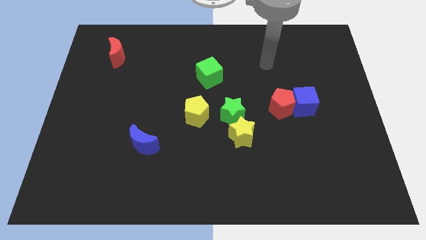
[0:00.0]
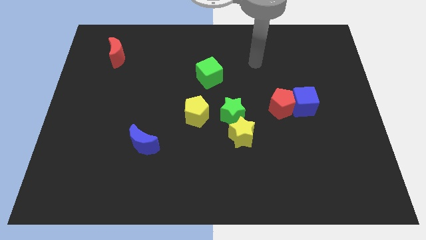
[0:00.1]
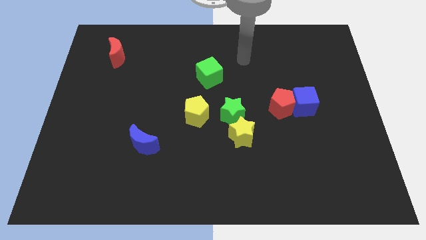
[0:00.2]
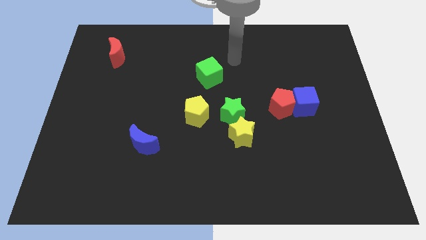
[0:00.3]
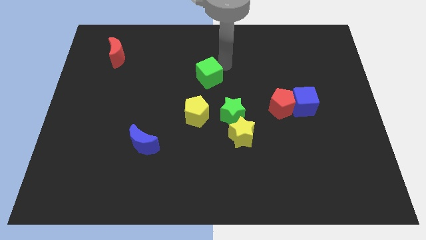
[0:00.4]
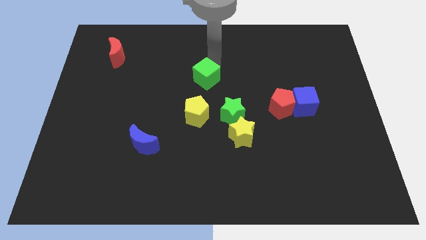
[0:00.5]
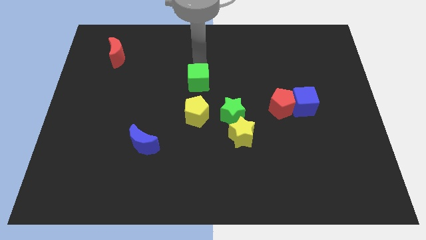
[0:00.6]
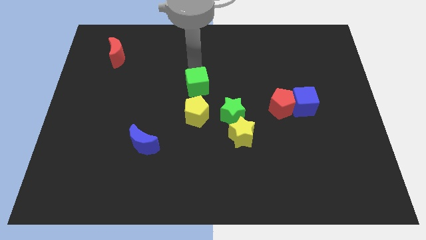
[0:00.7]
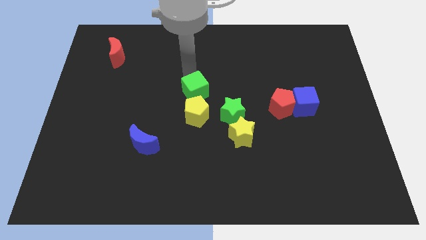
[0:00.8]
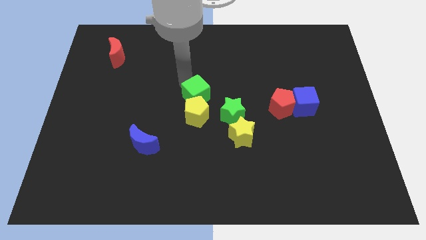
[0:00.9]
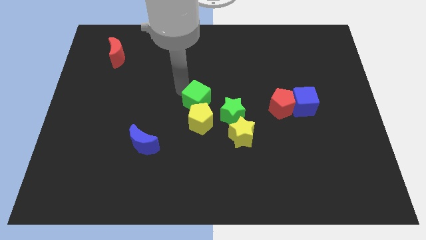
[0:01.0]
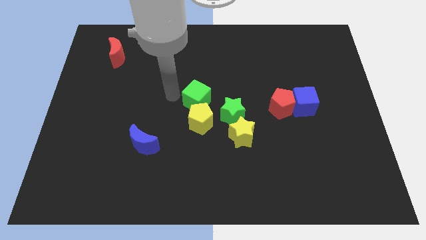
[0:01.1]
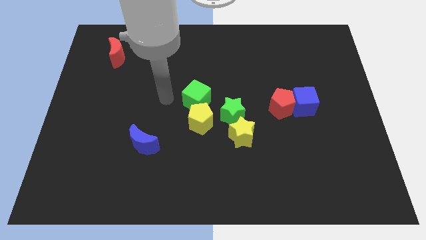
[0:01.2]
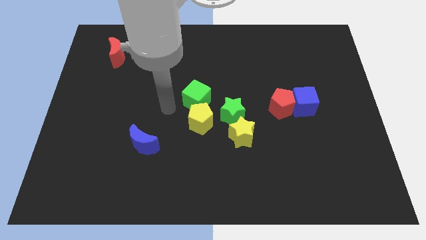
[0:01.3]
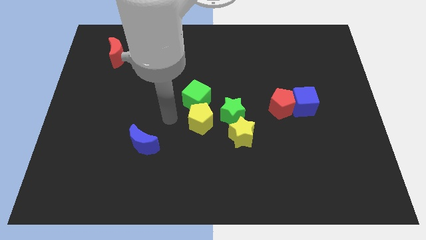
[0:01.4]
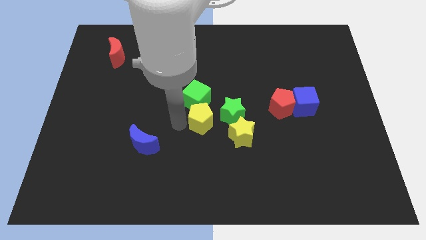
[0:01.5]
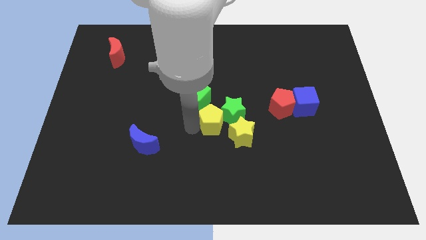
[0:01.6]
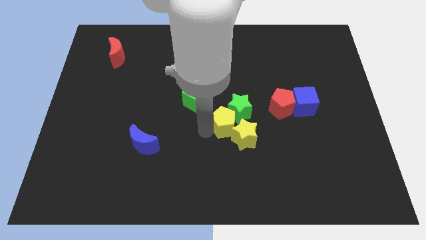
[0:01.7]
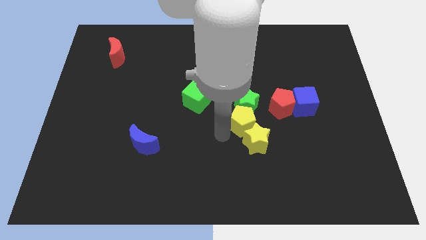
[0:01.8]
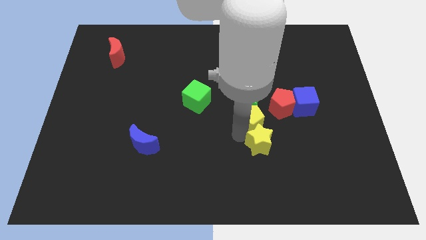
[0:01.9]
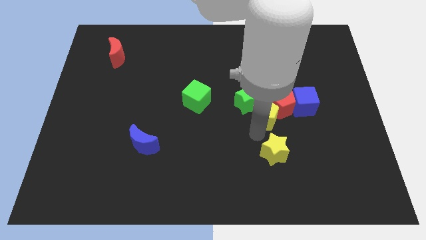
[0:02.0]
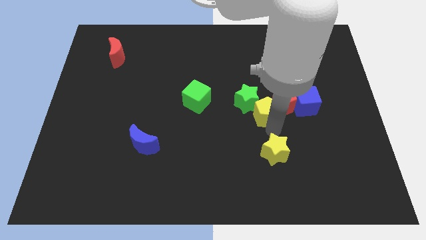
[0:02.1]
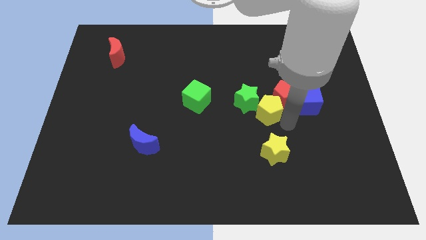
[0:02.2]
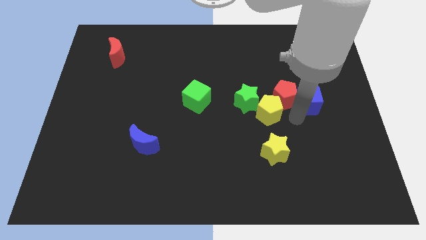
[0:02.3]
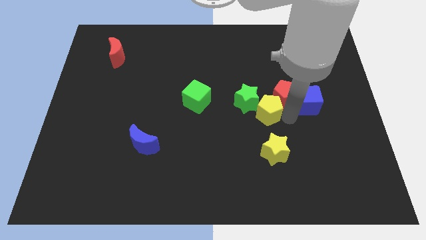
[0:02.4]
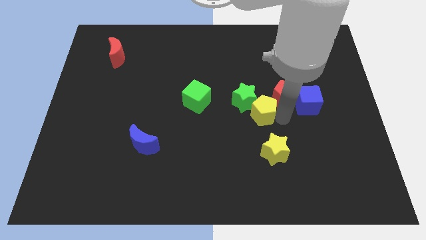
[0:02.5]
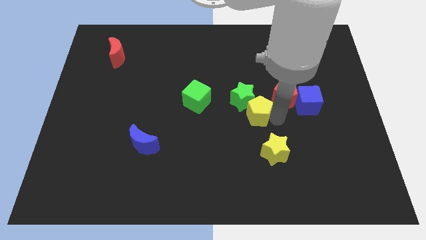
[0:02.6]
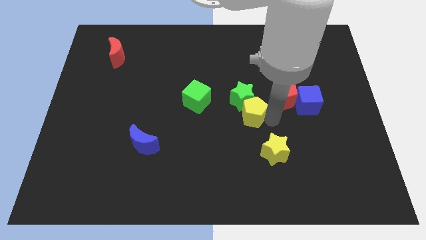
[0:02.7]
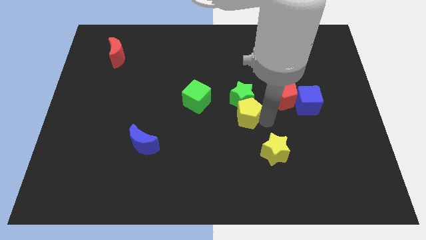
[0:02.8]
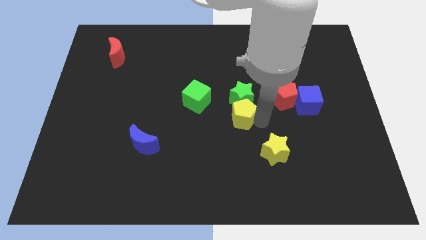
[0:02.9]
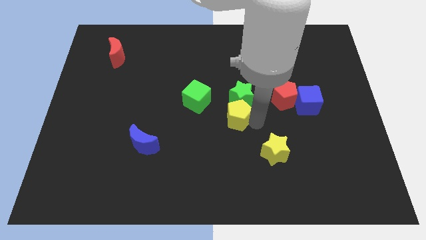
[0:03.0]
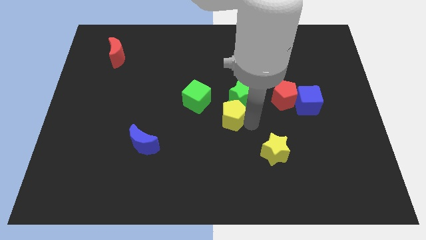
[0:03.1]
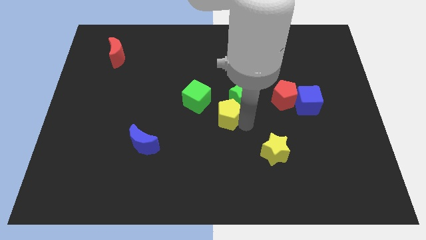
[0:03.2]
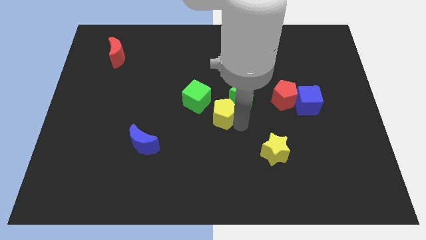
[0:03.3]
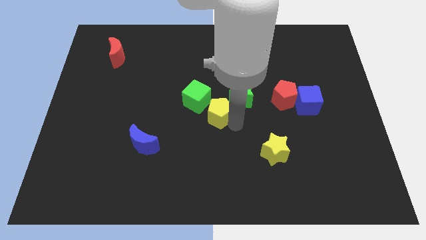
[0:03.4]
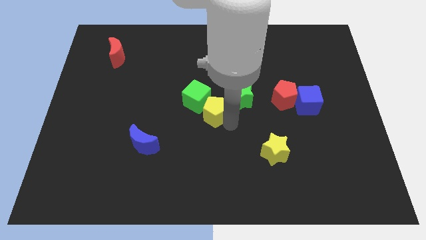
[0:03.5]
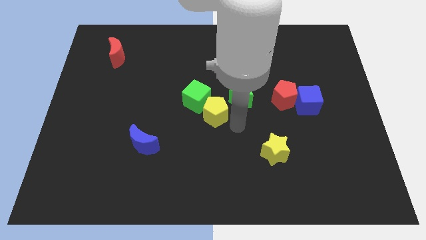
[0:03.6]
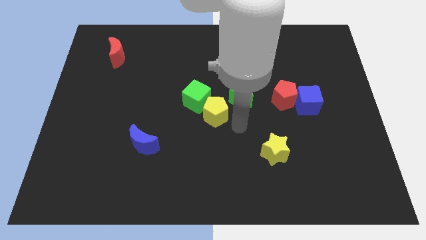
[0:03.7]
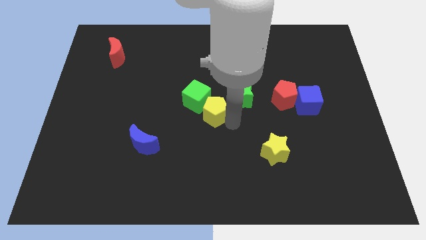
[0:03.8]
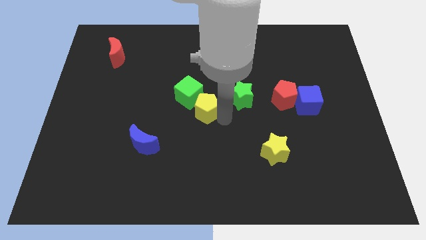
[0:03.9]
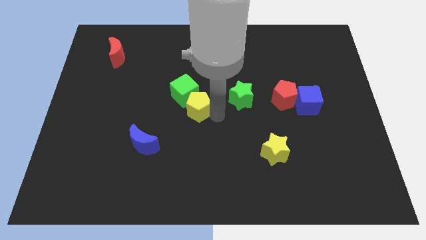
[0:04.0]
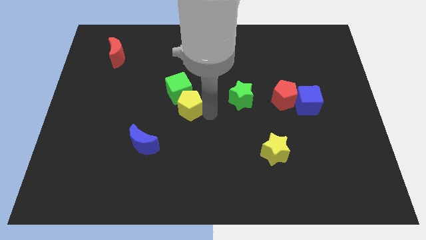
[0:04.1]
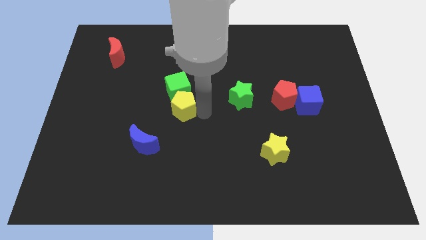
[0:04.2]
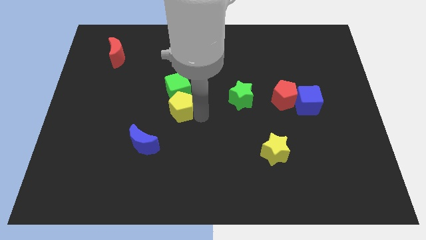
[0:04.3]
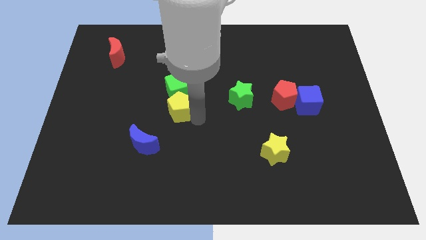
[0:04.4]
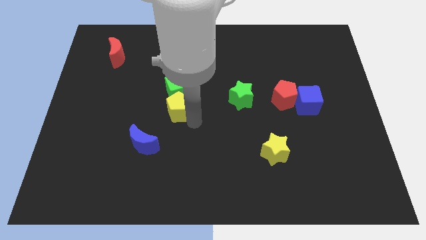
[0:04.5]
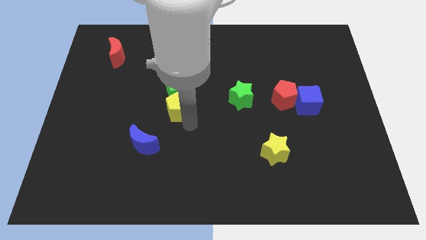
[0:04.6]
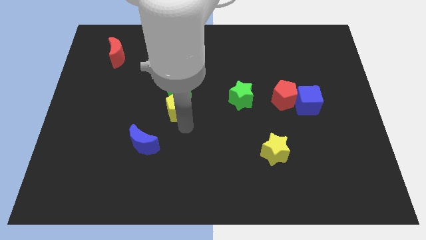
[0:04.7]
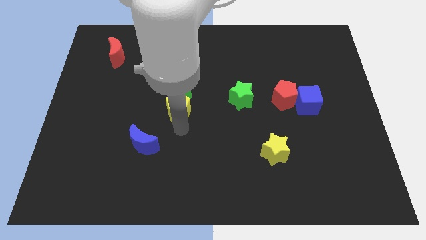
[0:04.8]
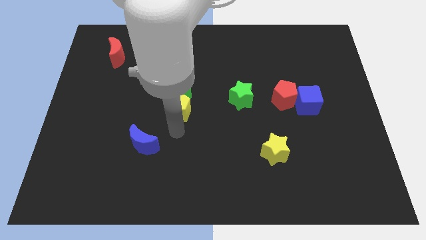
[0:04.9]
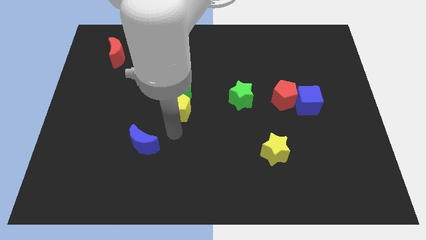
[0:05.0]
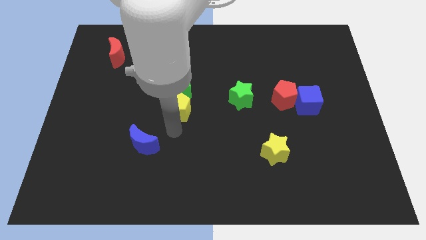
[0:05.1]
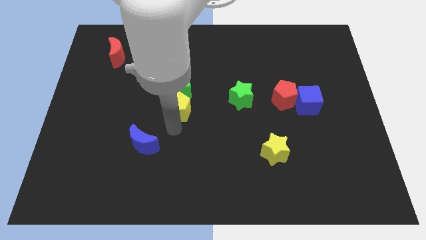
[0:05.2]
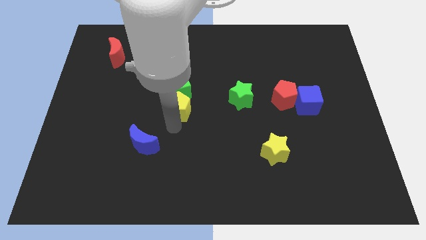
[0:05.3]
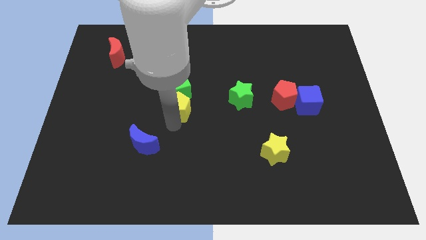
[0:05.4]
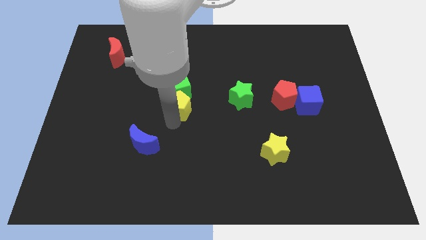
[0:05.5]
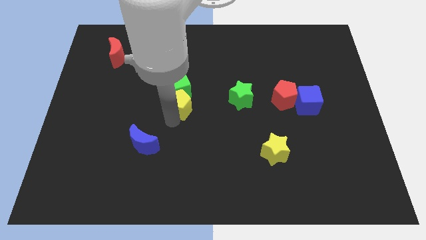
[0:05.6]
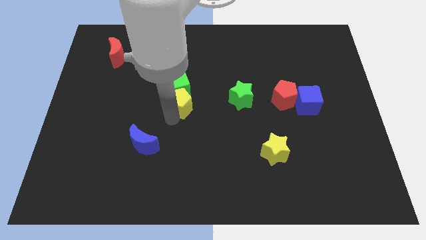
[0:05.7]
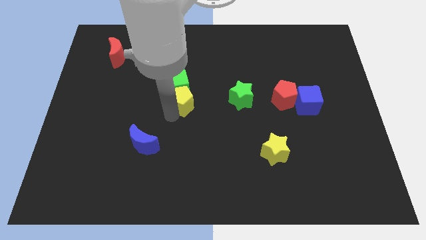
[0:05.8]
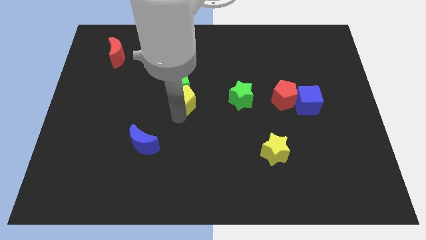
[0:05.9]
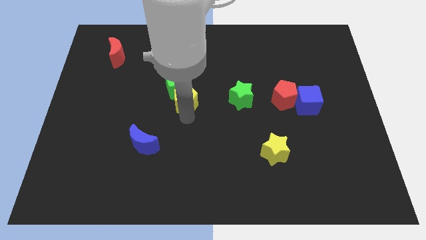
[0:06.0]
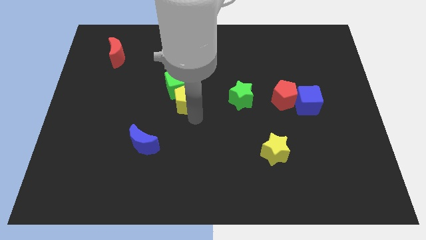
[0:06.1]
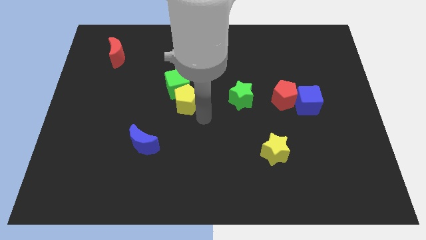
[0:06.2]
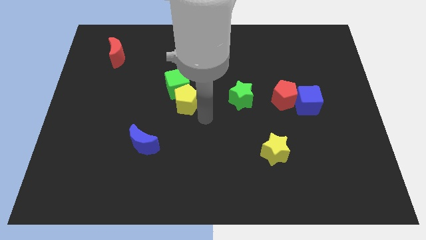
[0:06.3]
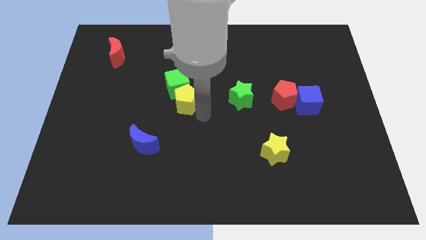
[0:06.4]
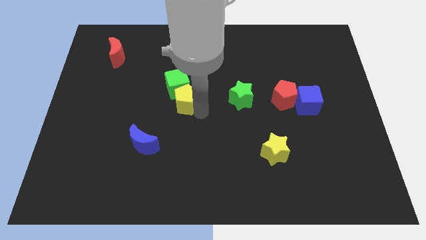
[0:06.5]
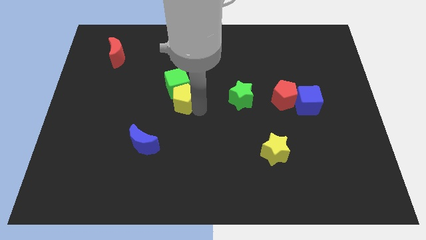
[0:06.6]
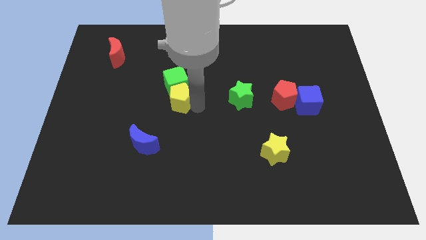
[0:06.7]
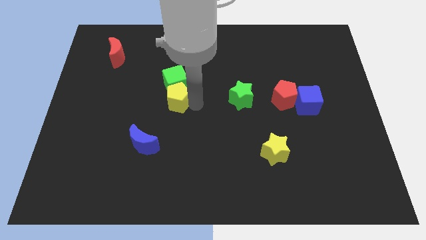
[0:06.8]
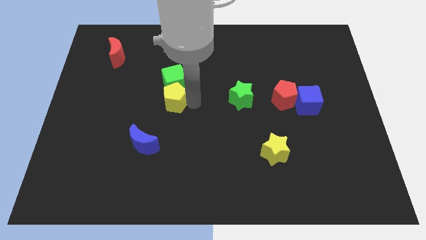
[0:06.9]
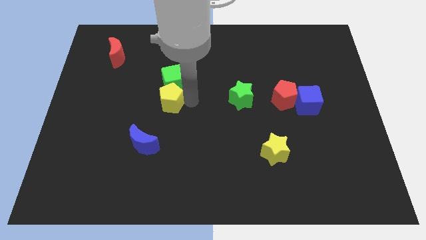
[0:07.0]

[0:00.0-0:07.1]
push the yellow pentagon slightly diagonally upwards and left

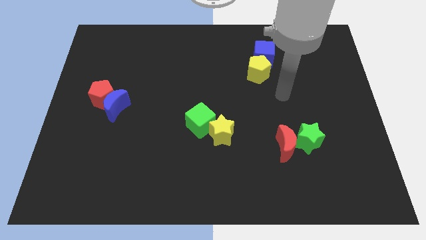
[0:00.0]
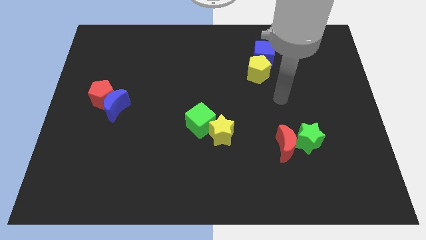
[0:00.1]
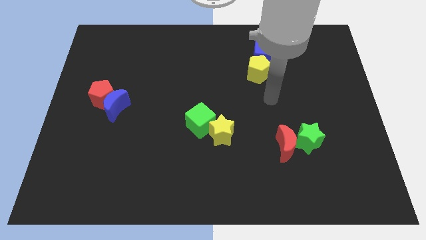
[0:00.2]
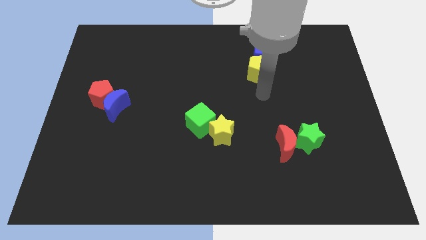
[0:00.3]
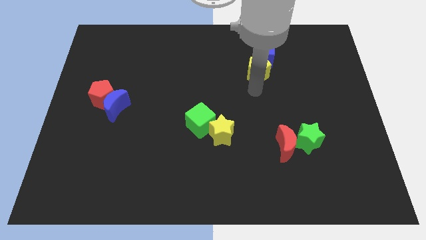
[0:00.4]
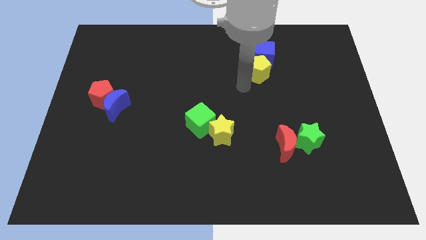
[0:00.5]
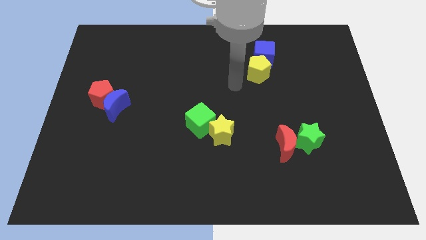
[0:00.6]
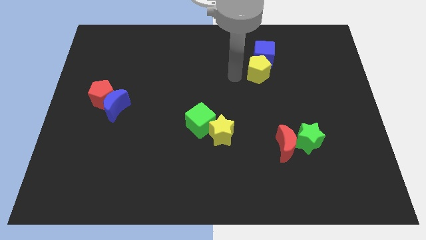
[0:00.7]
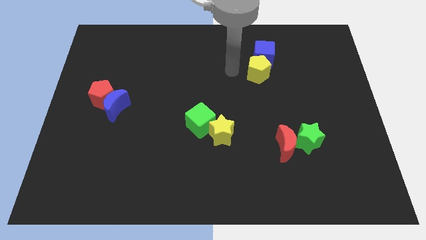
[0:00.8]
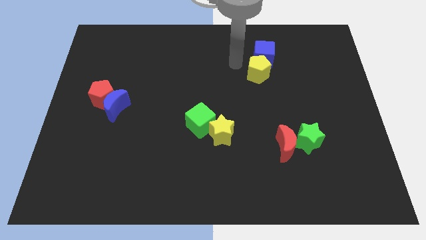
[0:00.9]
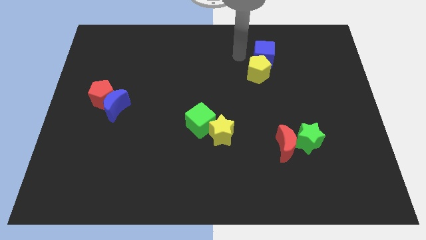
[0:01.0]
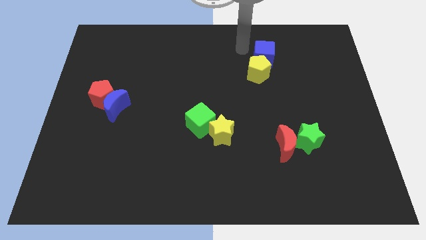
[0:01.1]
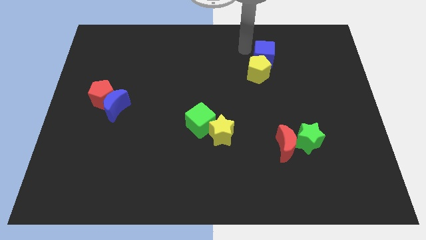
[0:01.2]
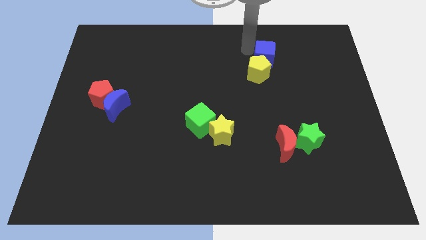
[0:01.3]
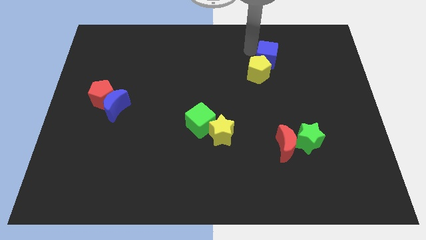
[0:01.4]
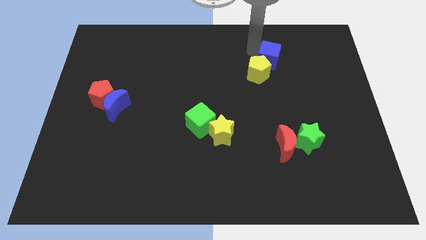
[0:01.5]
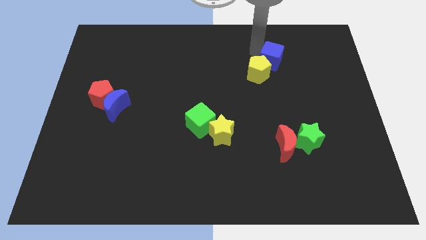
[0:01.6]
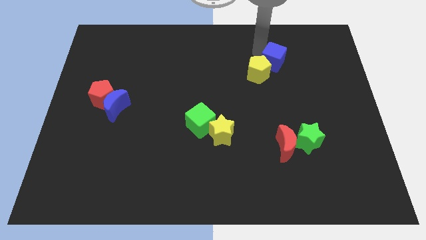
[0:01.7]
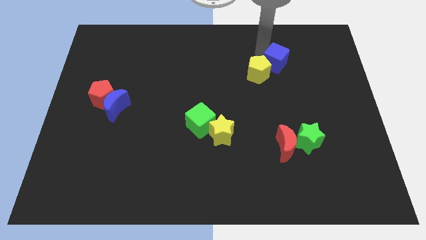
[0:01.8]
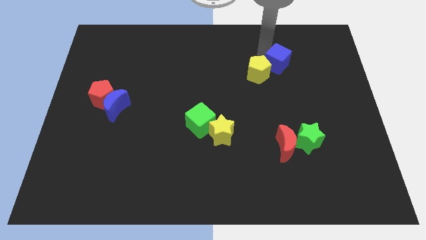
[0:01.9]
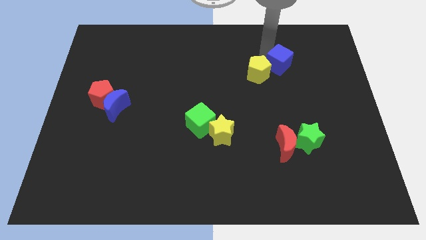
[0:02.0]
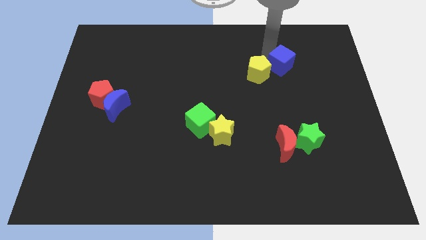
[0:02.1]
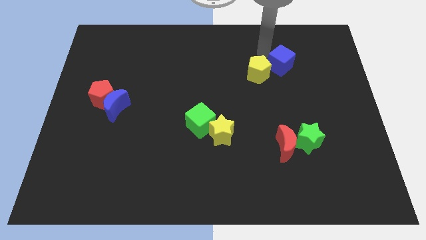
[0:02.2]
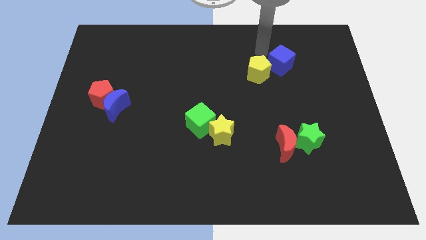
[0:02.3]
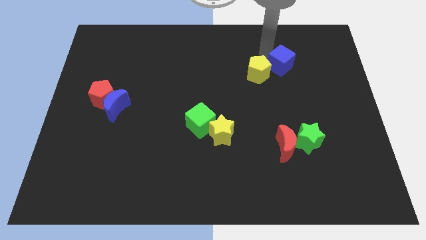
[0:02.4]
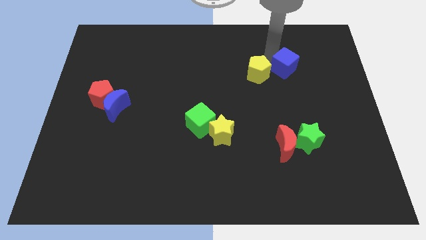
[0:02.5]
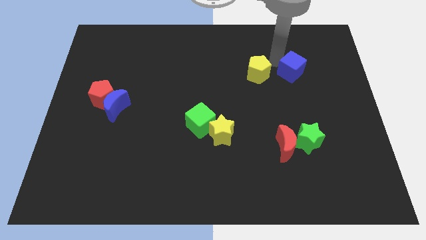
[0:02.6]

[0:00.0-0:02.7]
slide the blue cube a bit down and to the right
